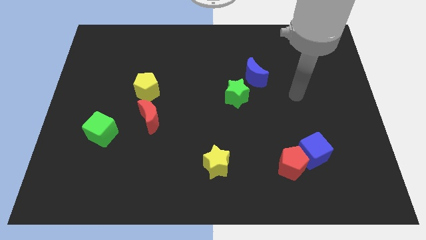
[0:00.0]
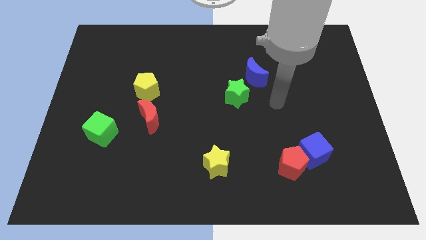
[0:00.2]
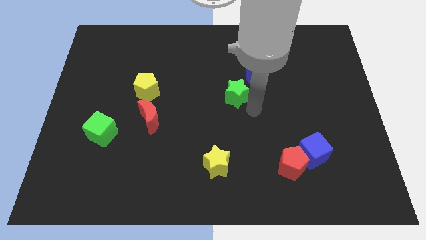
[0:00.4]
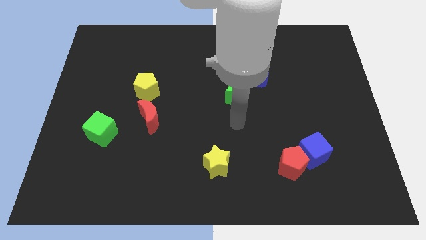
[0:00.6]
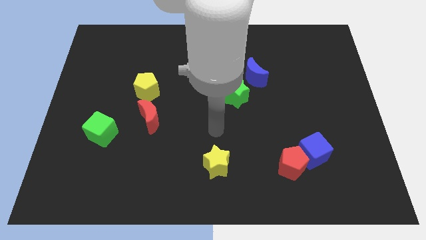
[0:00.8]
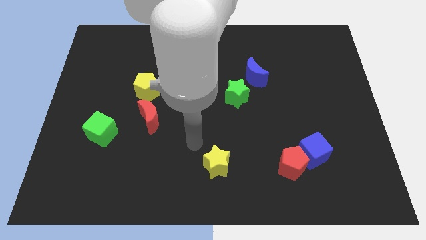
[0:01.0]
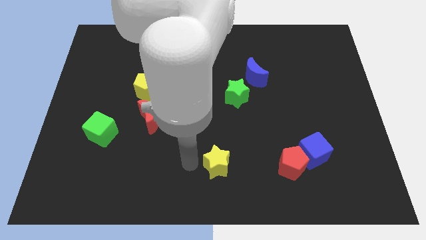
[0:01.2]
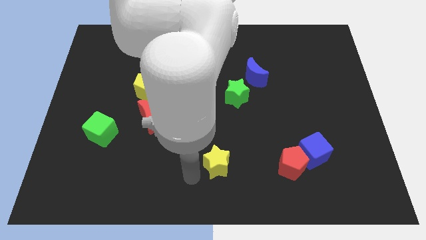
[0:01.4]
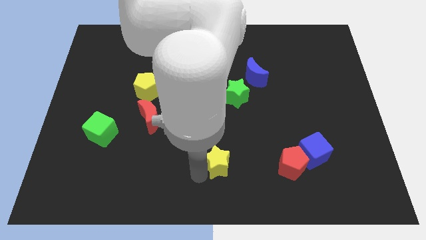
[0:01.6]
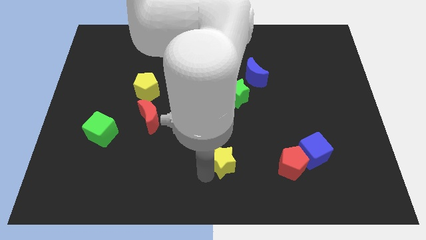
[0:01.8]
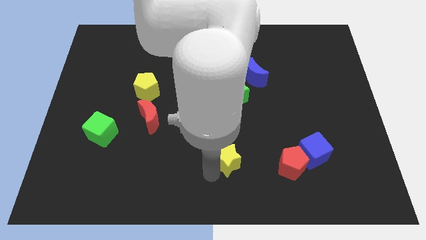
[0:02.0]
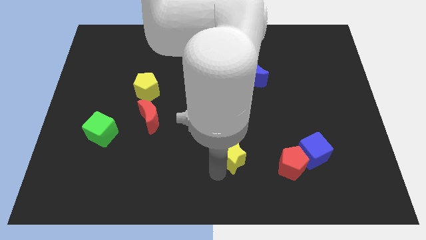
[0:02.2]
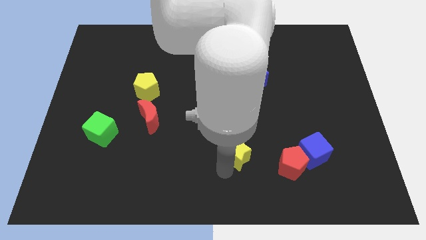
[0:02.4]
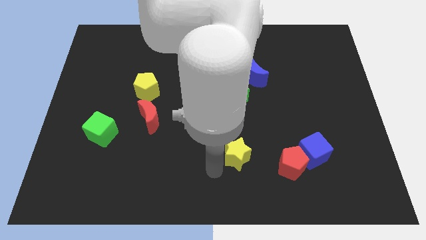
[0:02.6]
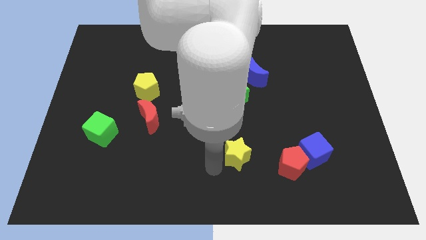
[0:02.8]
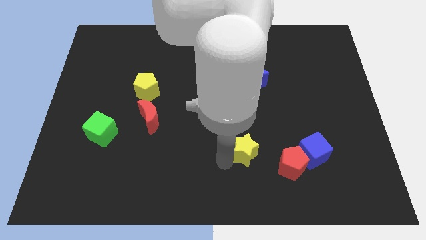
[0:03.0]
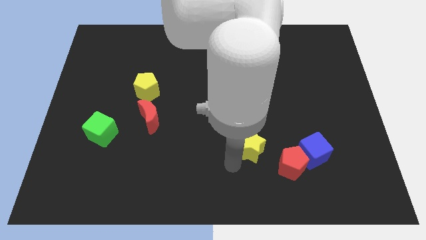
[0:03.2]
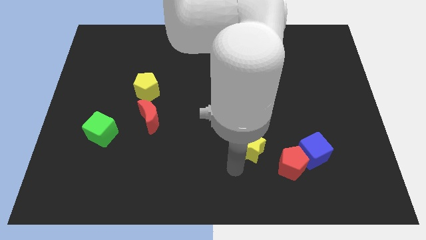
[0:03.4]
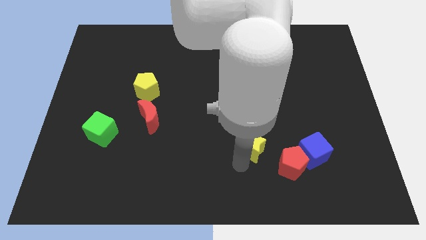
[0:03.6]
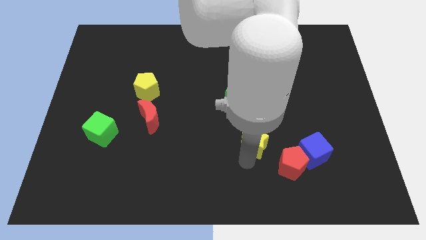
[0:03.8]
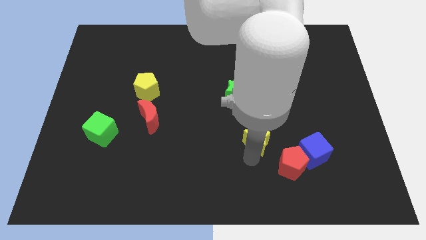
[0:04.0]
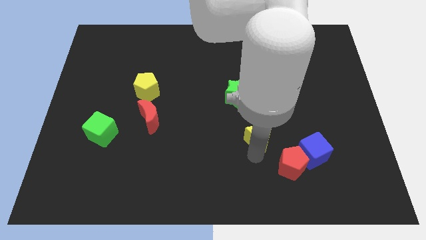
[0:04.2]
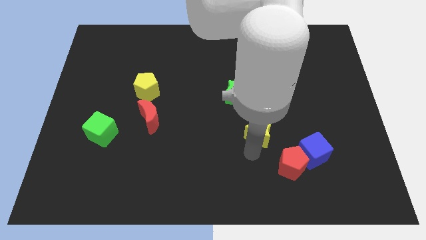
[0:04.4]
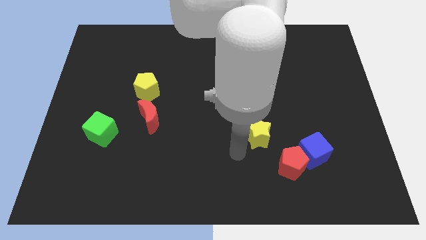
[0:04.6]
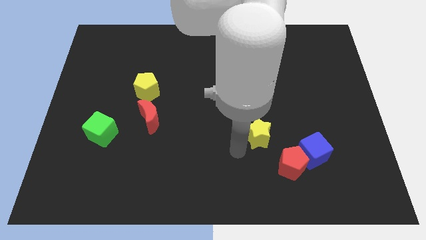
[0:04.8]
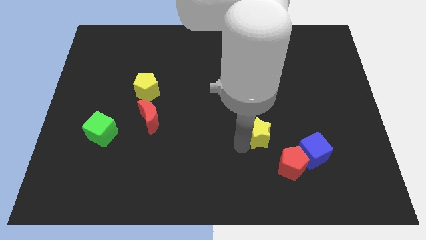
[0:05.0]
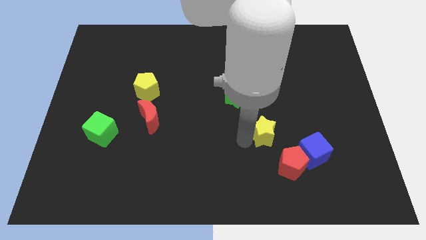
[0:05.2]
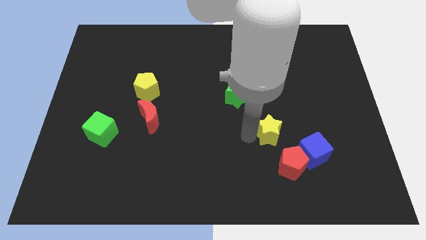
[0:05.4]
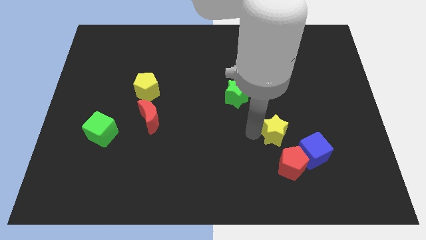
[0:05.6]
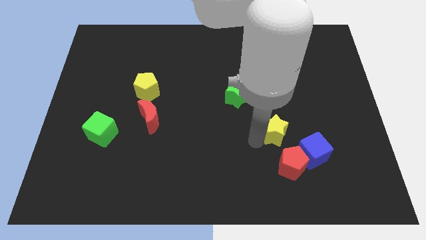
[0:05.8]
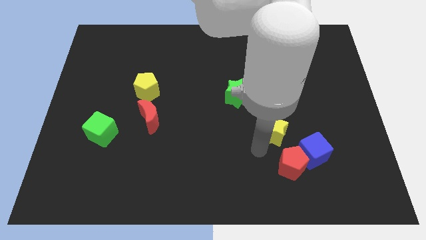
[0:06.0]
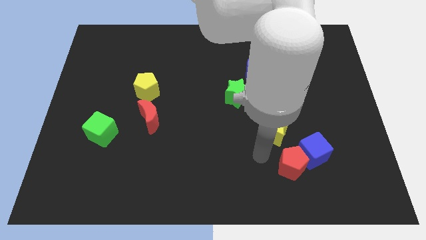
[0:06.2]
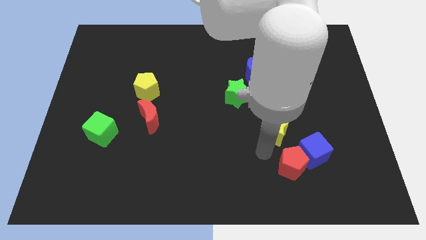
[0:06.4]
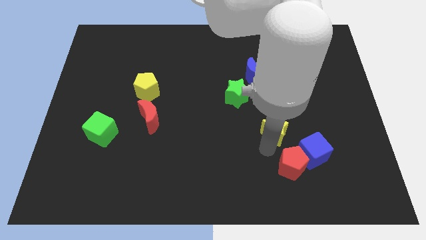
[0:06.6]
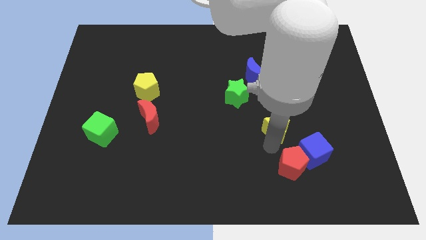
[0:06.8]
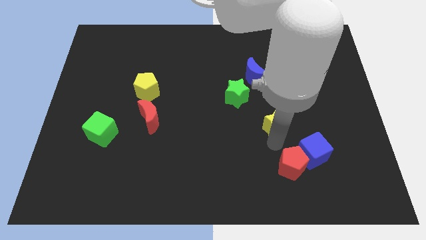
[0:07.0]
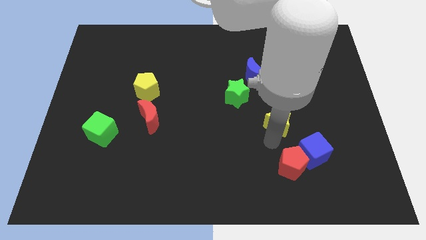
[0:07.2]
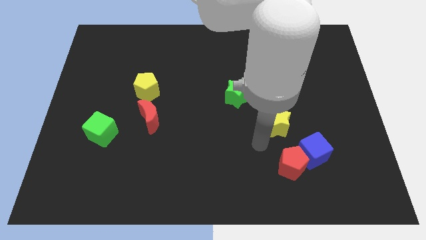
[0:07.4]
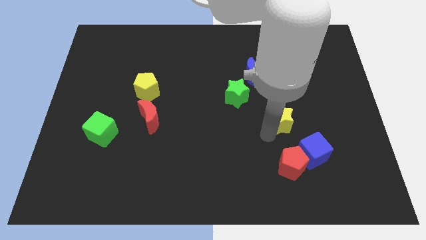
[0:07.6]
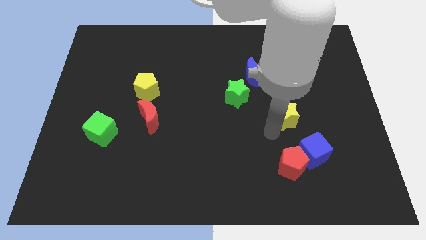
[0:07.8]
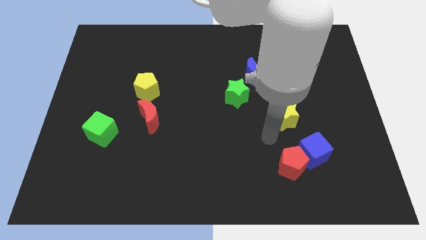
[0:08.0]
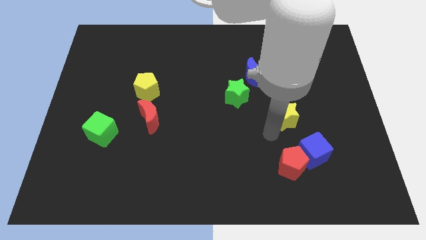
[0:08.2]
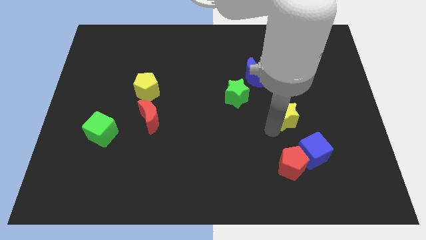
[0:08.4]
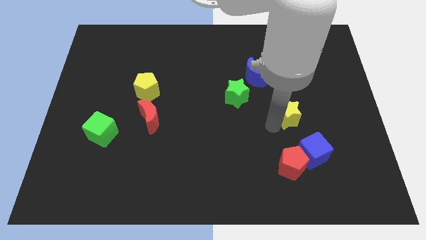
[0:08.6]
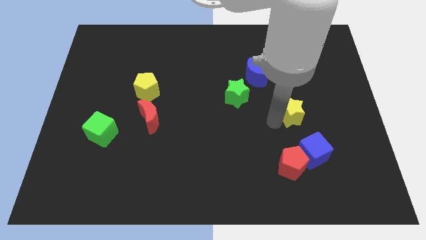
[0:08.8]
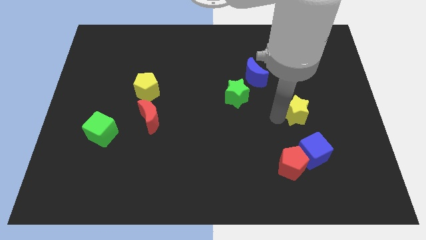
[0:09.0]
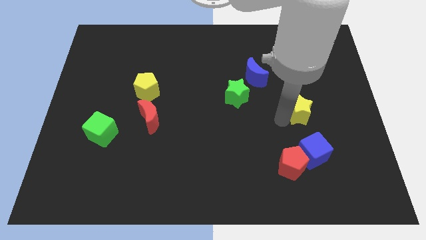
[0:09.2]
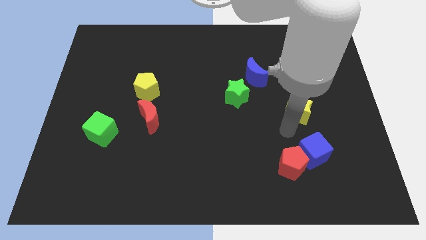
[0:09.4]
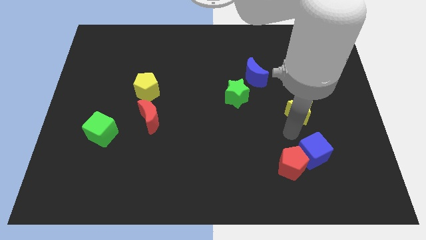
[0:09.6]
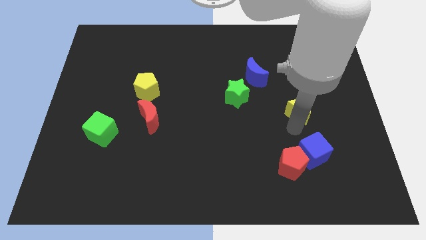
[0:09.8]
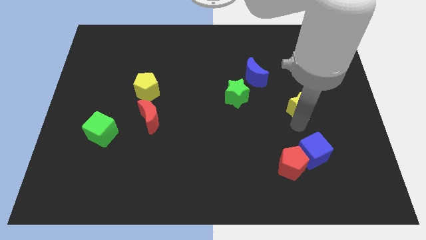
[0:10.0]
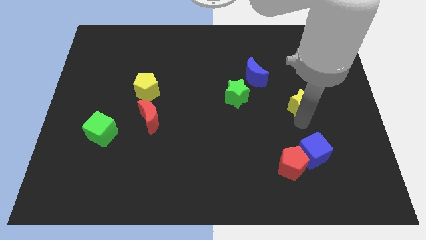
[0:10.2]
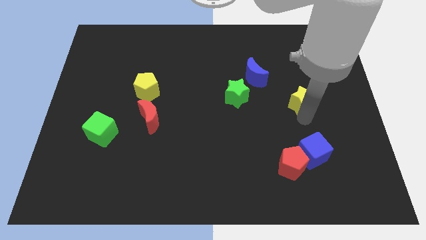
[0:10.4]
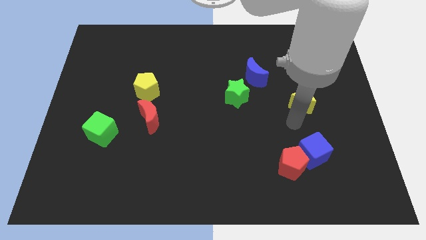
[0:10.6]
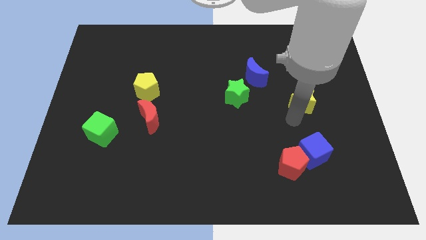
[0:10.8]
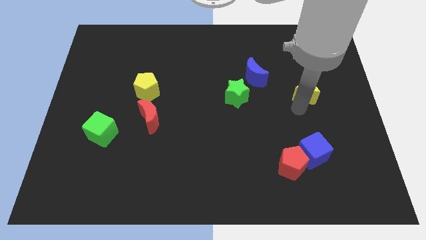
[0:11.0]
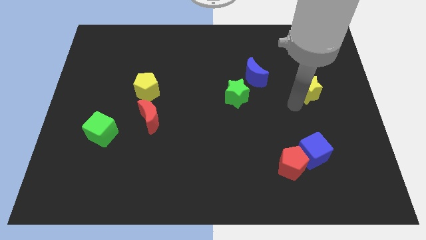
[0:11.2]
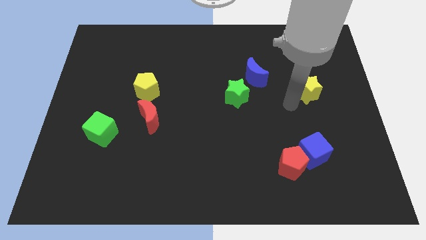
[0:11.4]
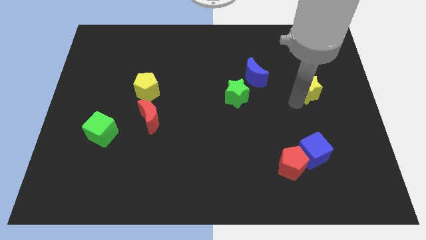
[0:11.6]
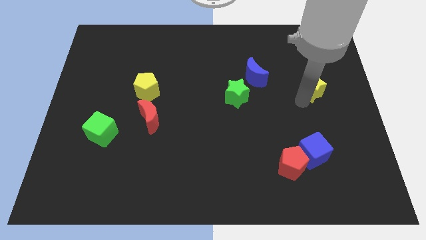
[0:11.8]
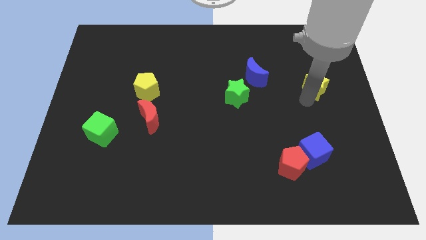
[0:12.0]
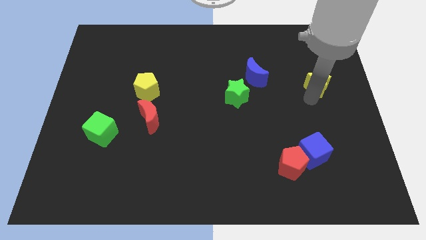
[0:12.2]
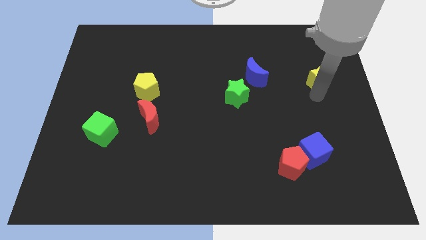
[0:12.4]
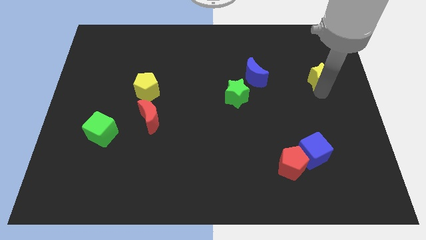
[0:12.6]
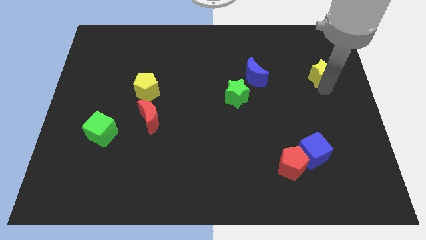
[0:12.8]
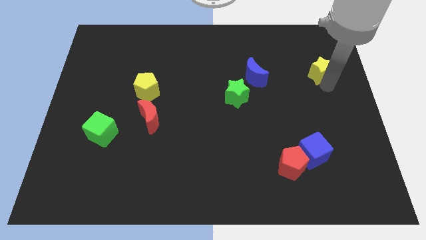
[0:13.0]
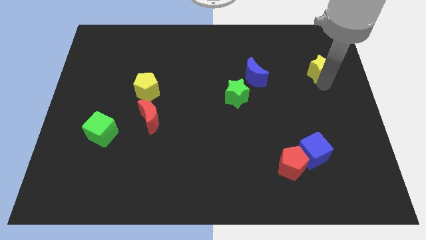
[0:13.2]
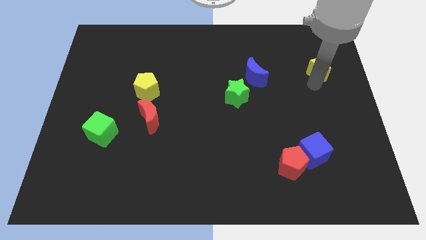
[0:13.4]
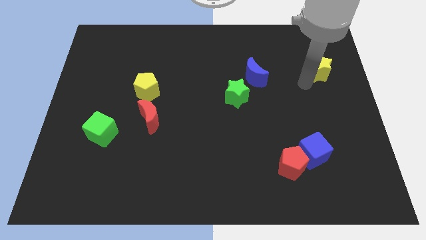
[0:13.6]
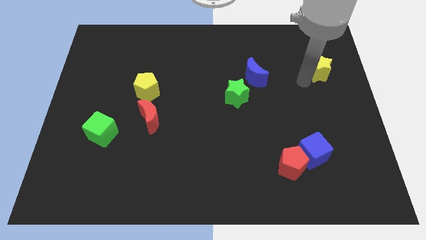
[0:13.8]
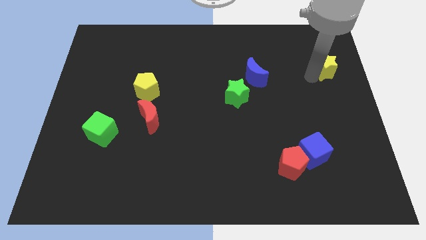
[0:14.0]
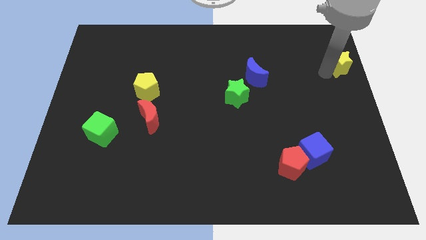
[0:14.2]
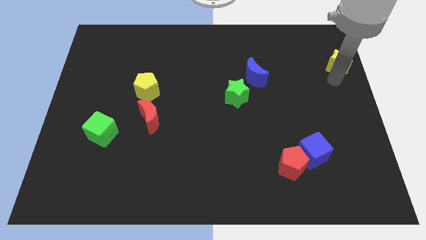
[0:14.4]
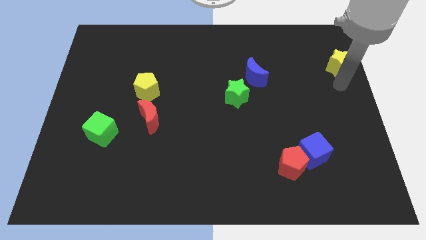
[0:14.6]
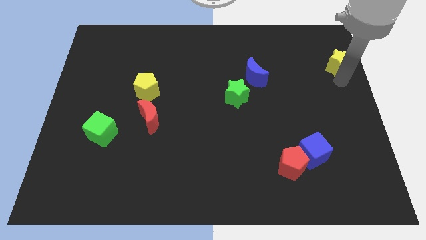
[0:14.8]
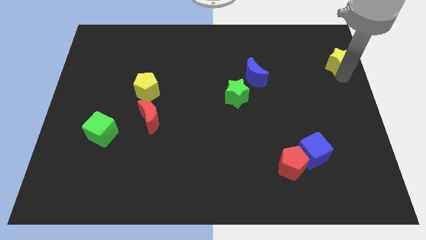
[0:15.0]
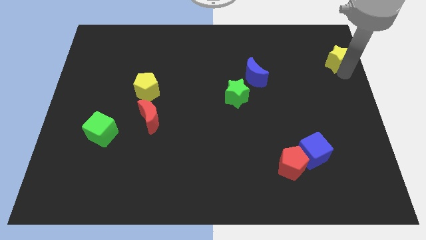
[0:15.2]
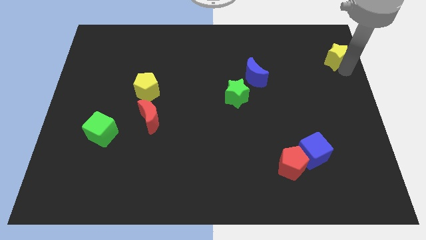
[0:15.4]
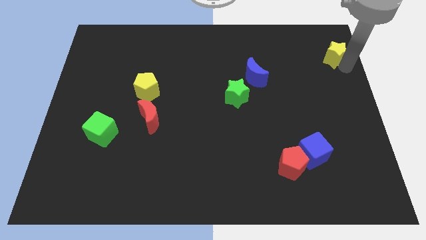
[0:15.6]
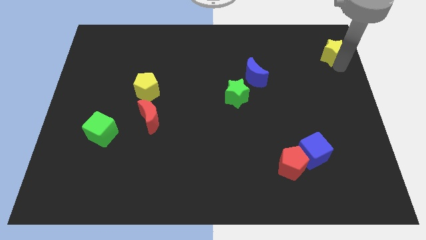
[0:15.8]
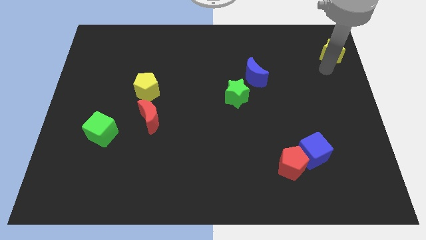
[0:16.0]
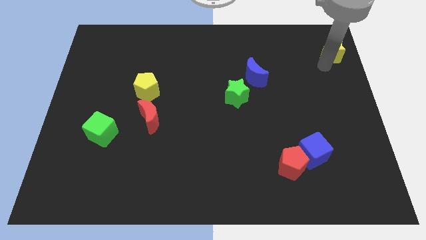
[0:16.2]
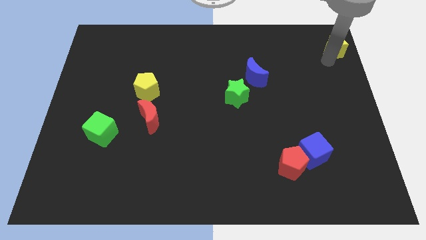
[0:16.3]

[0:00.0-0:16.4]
push the yellow star to the upper right corner
